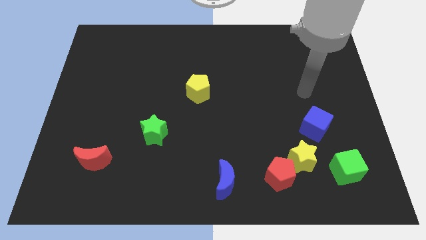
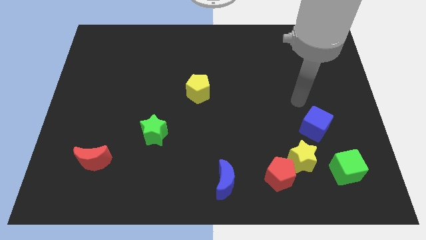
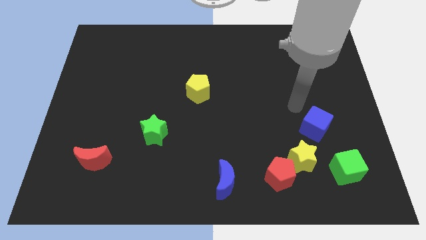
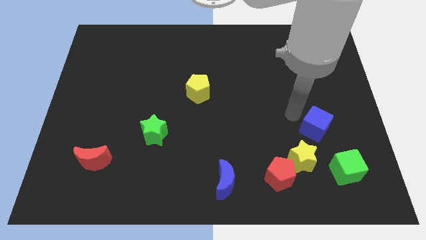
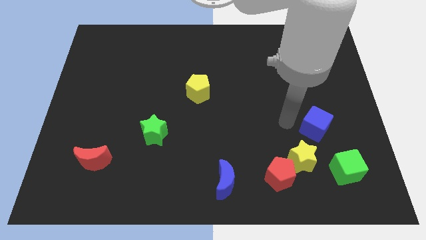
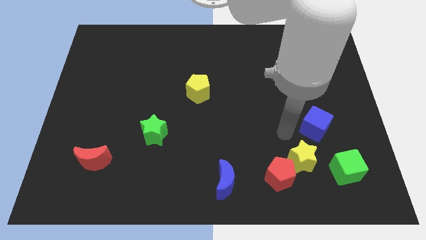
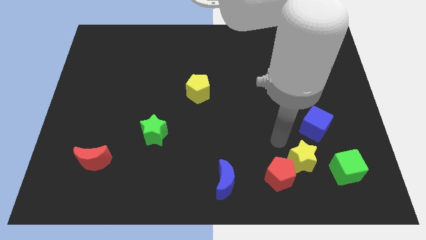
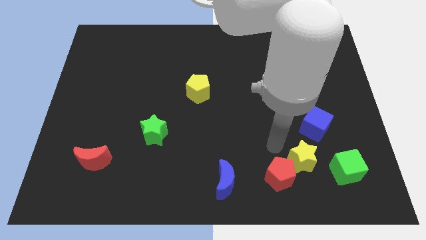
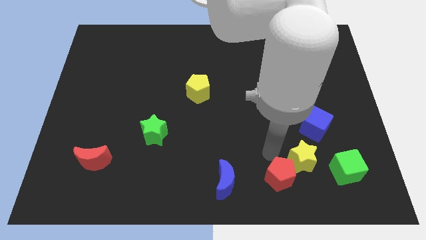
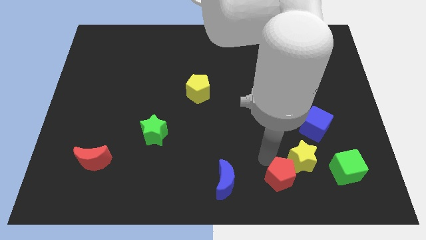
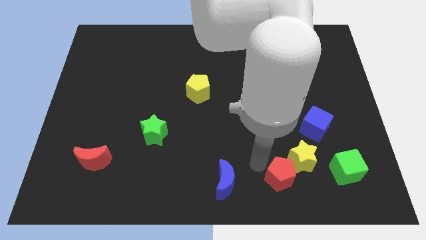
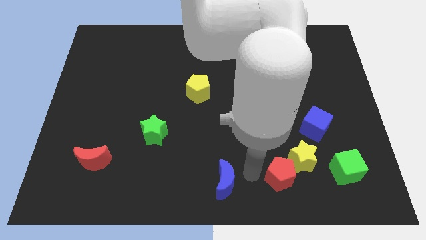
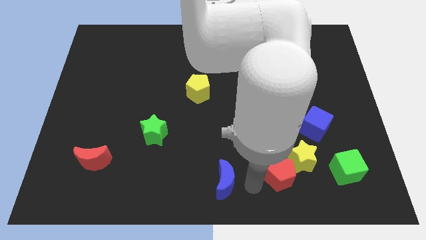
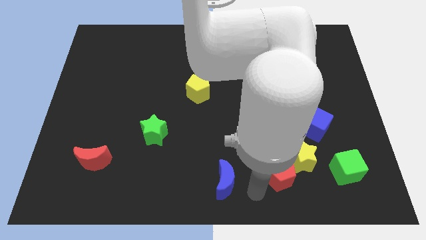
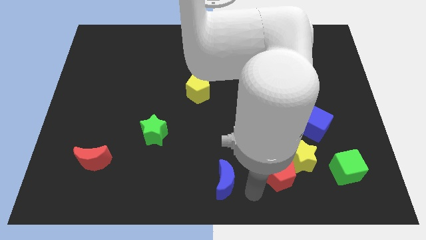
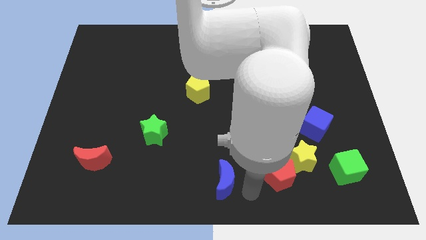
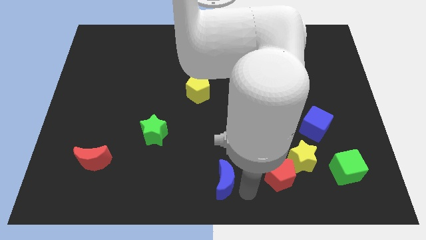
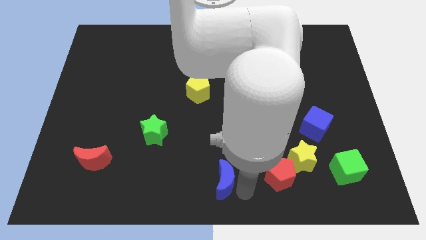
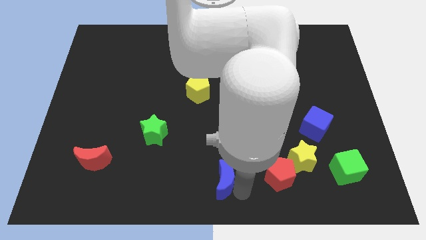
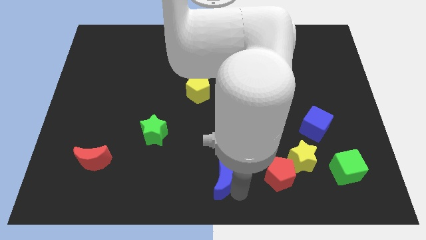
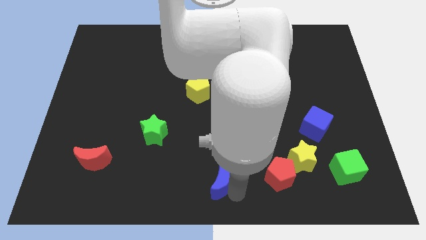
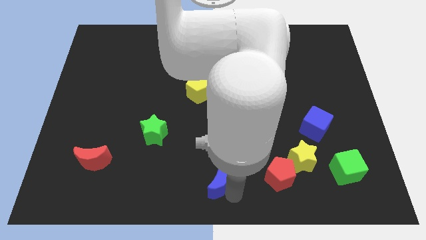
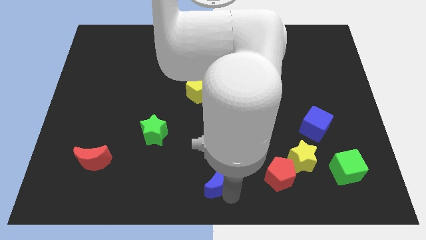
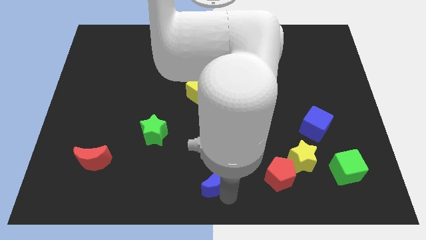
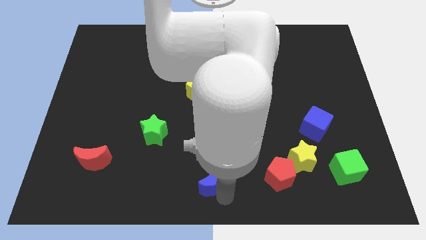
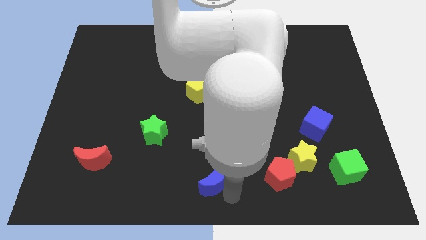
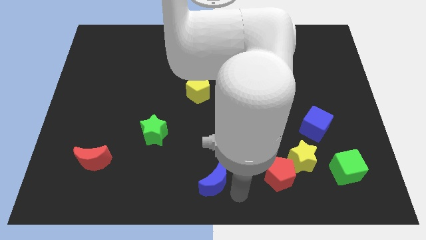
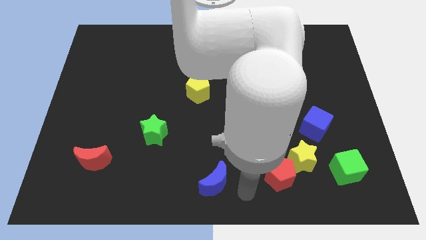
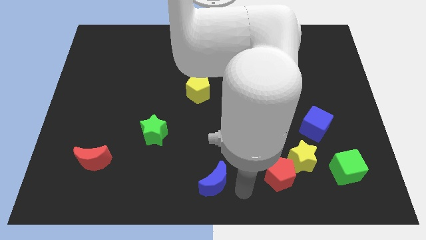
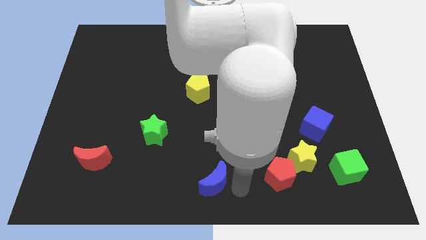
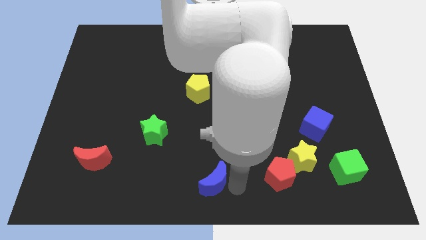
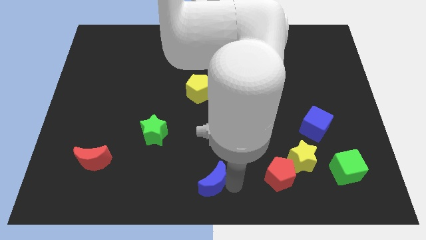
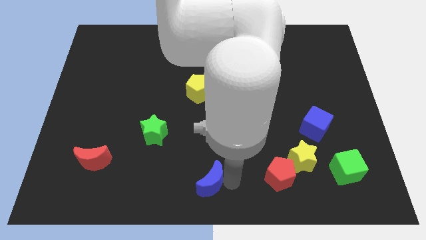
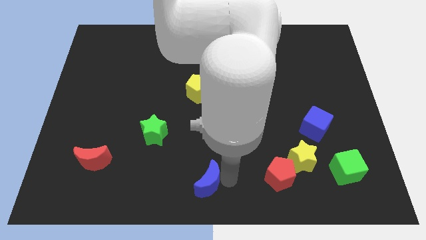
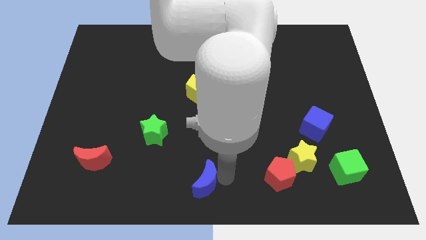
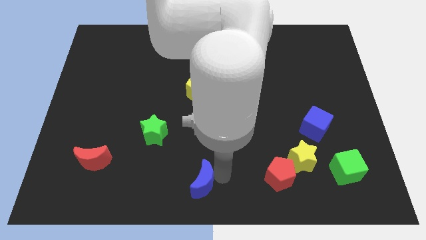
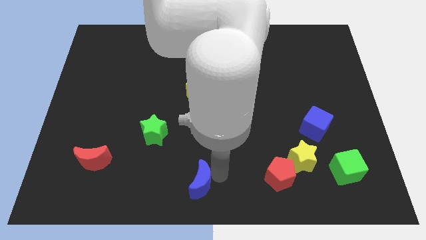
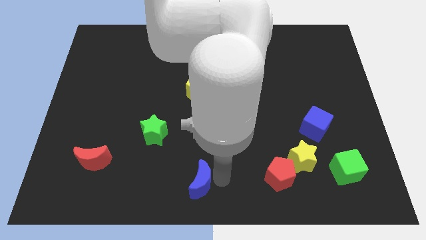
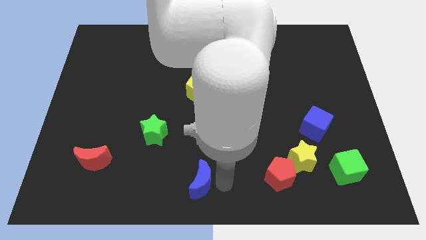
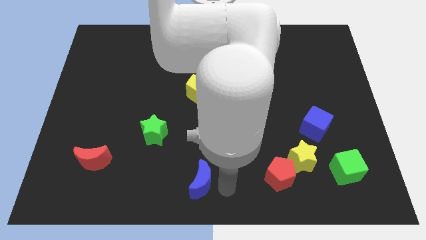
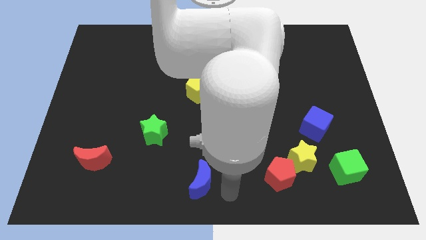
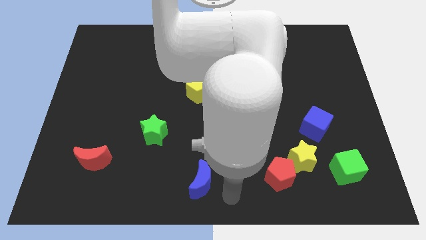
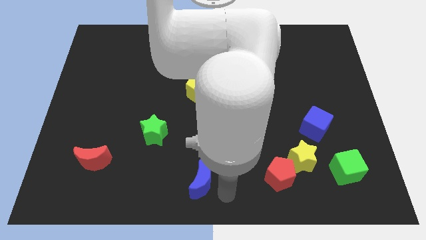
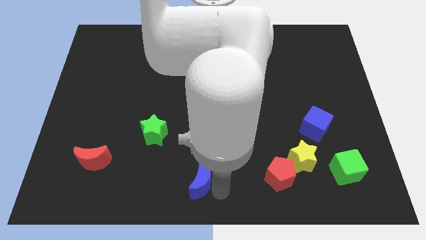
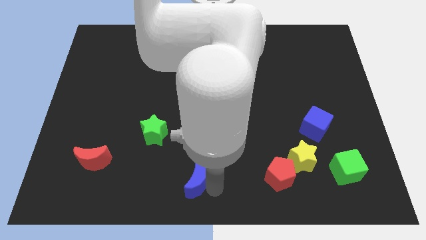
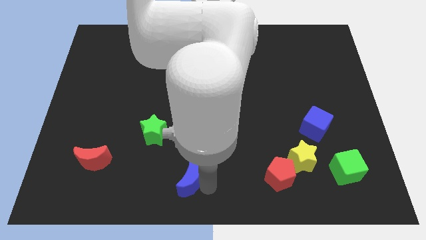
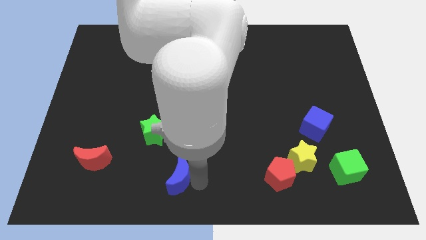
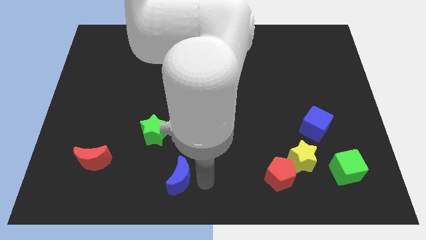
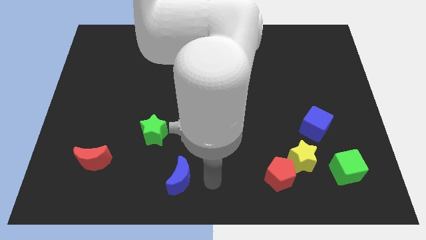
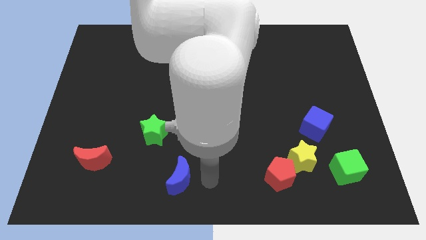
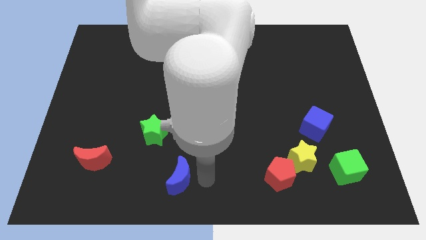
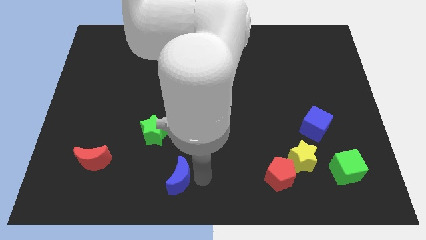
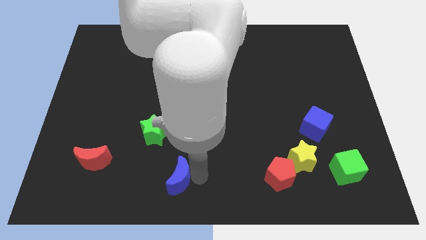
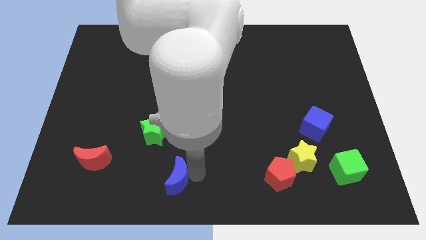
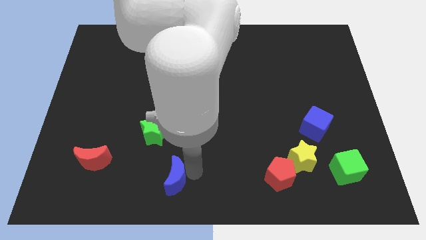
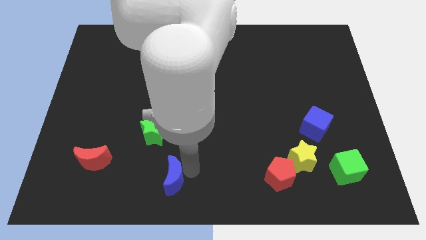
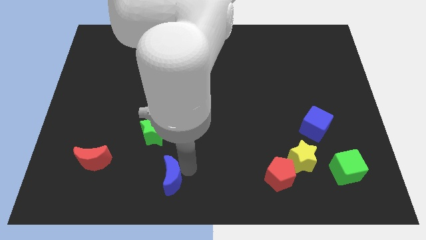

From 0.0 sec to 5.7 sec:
slide the blue moon to the bottom of the green star

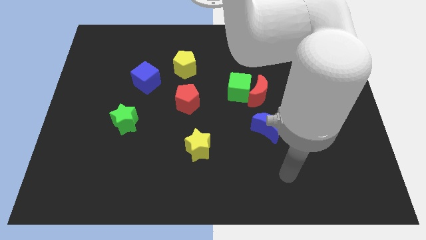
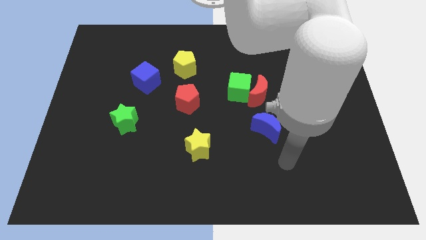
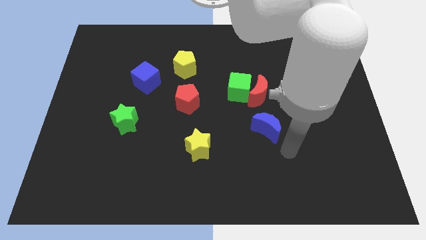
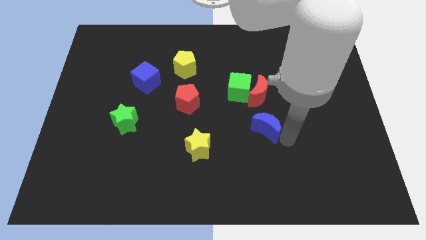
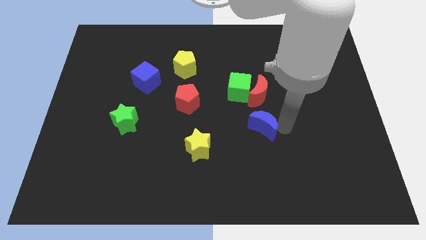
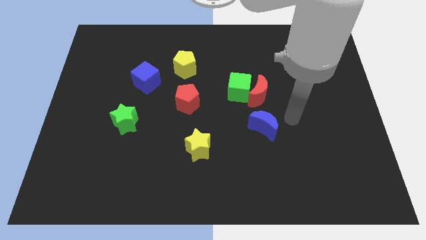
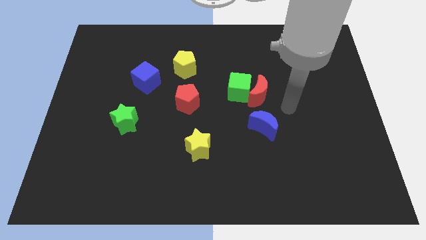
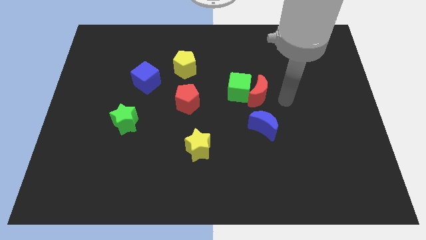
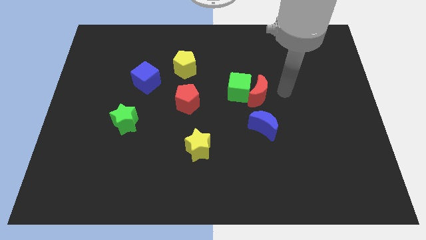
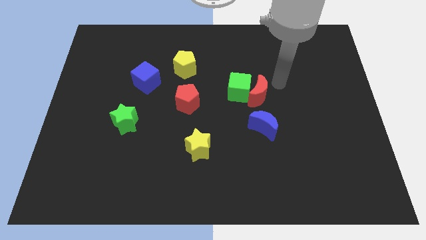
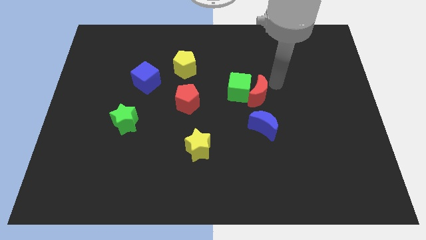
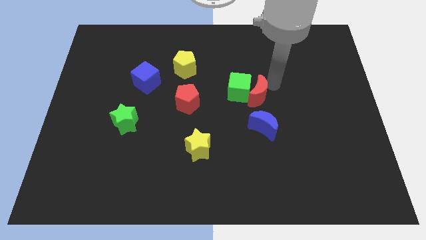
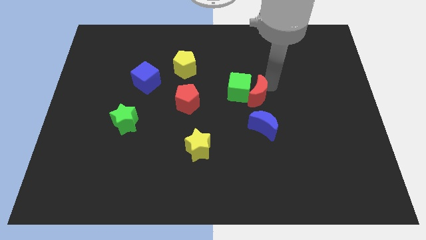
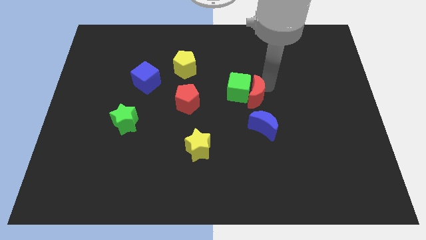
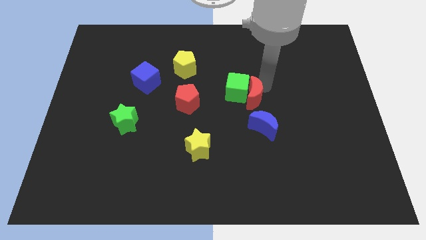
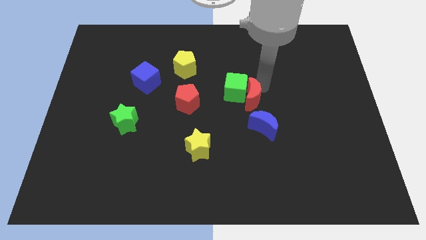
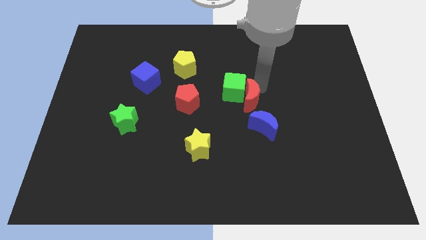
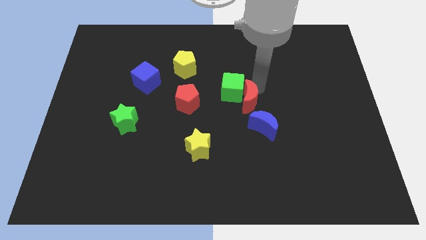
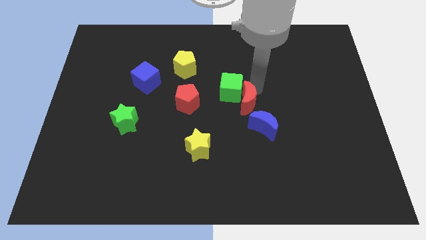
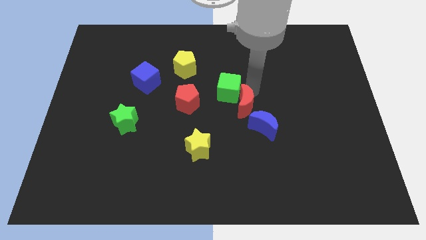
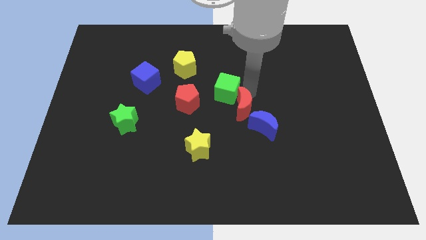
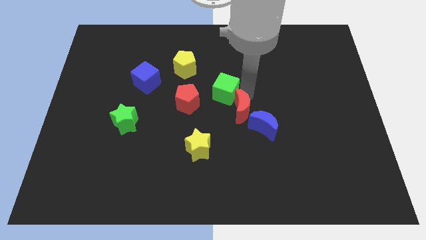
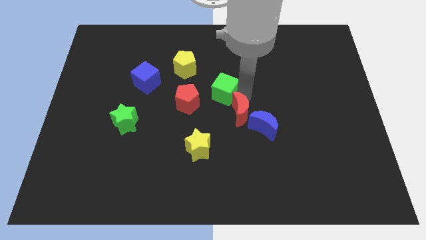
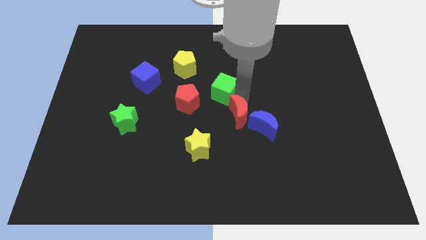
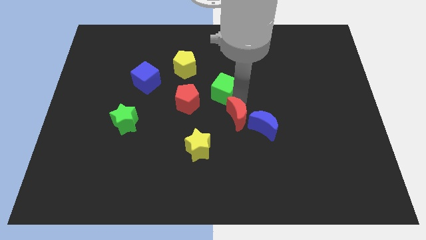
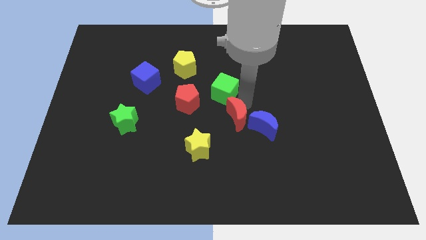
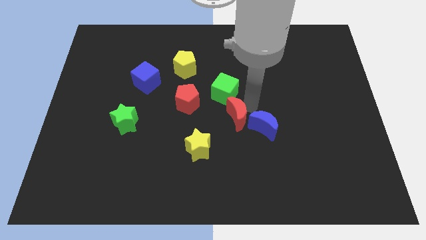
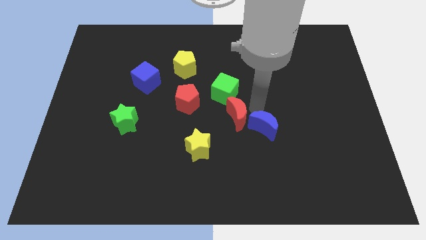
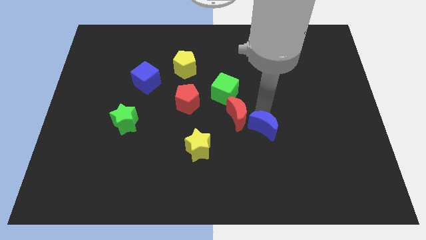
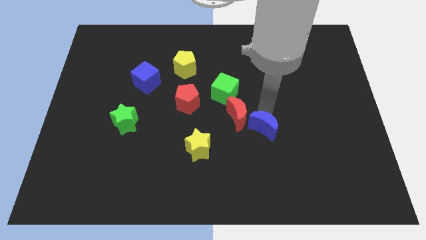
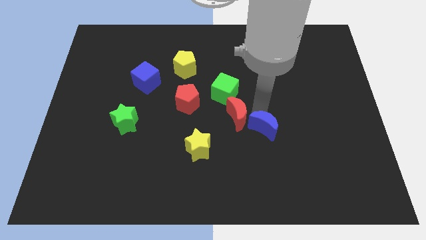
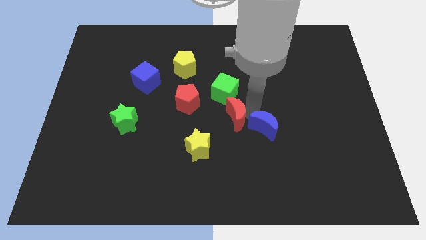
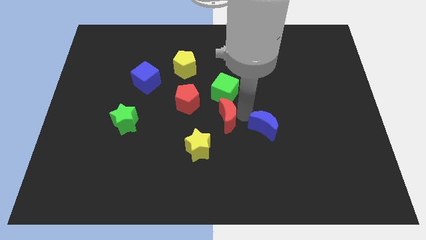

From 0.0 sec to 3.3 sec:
move the red moon diagonally down and to the right of the red pentagon
